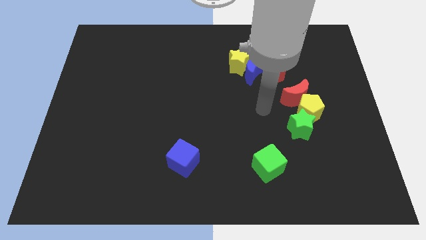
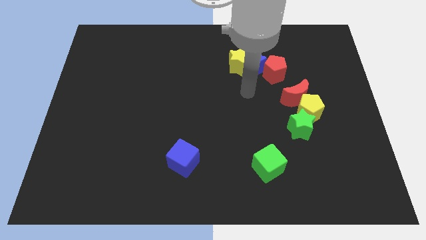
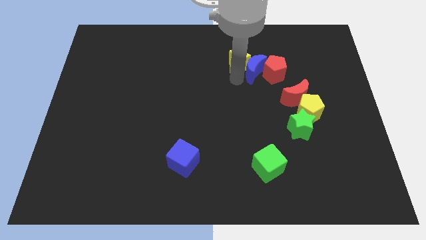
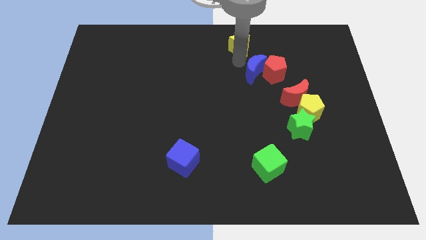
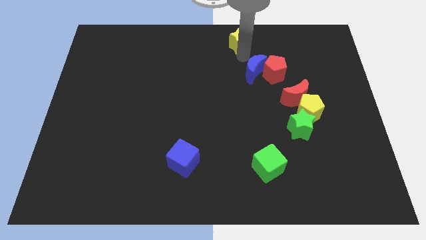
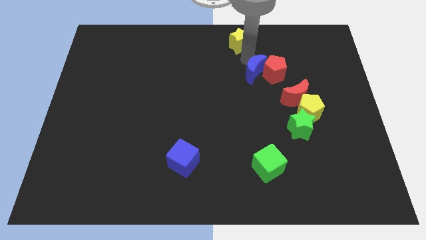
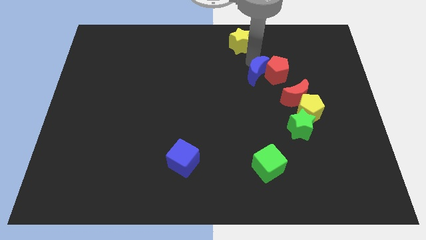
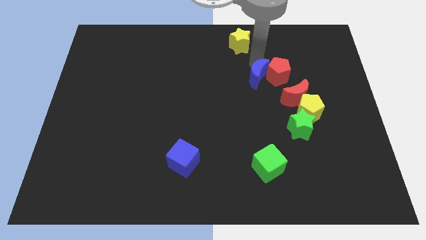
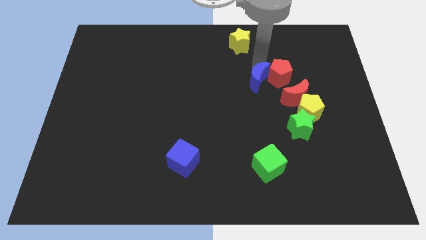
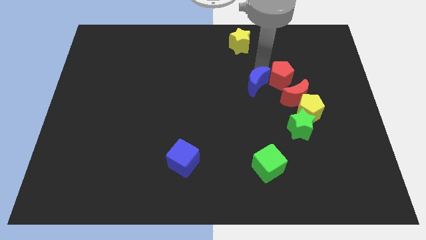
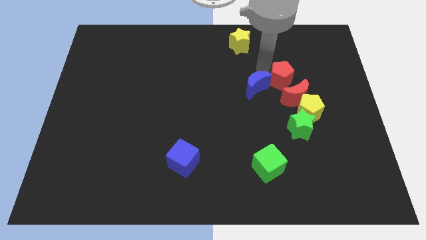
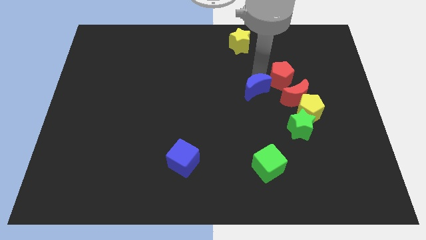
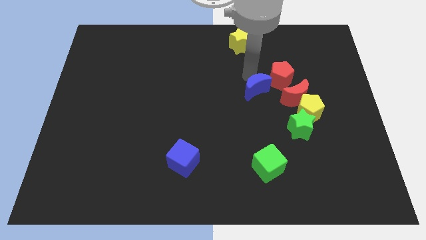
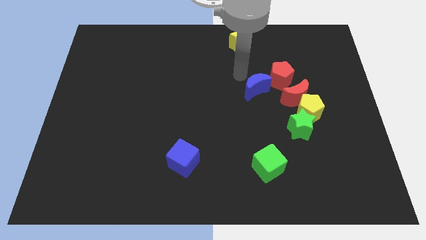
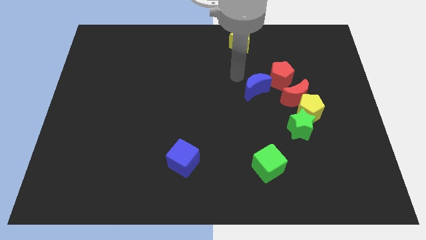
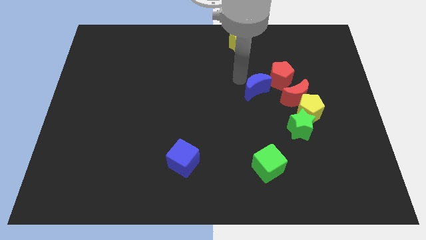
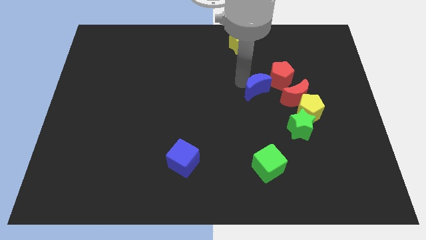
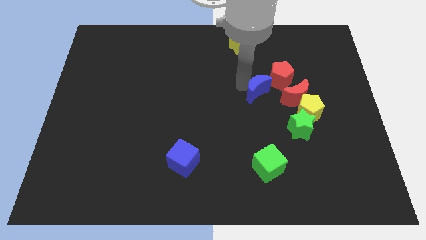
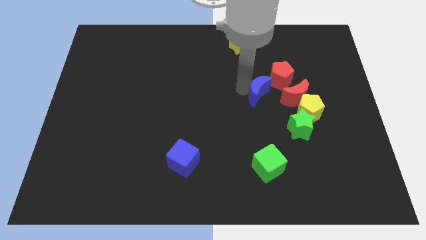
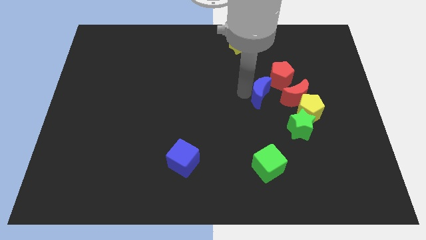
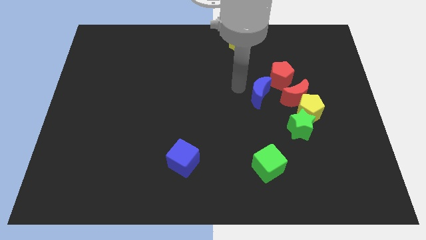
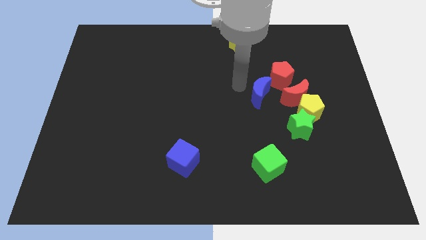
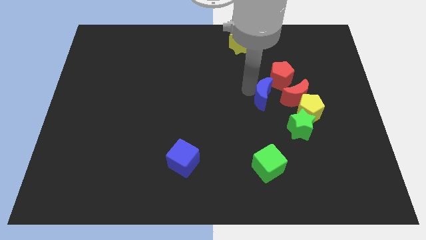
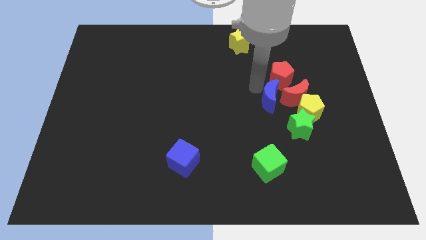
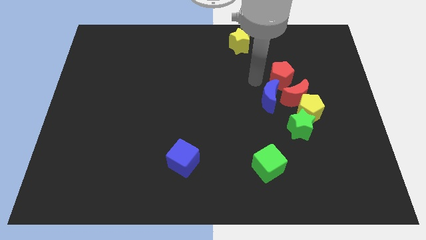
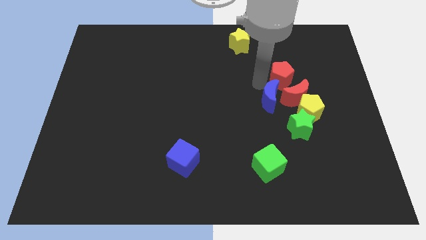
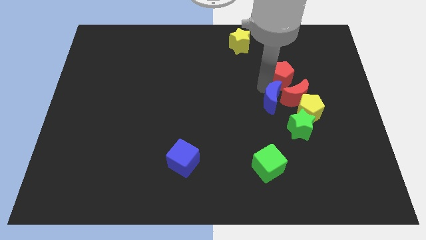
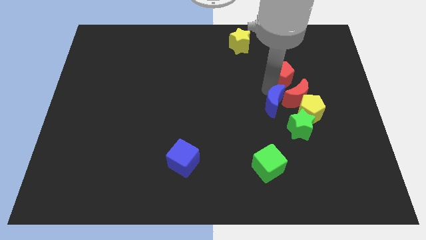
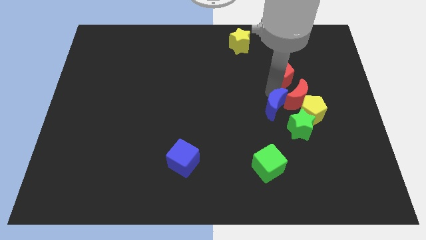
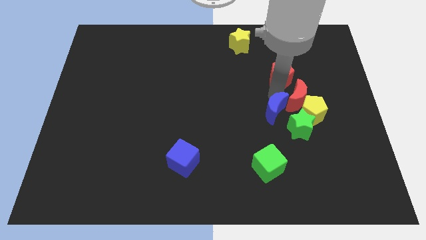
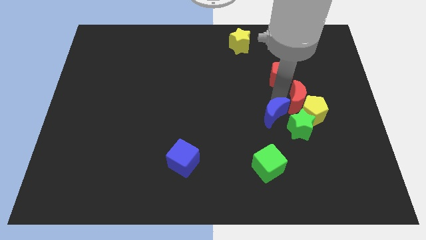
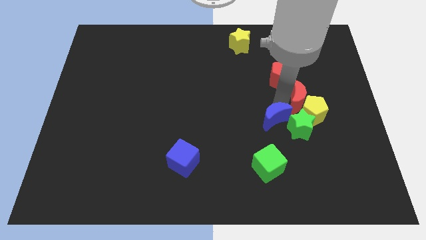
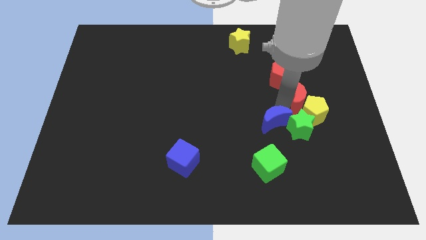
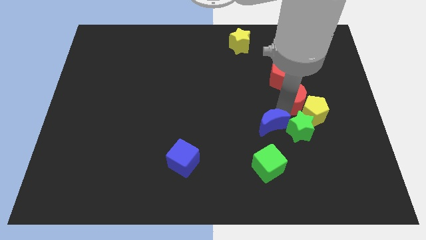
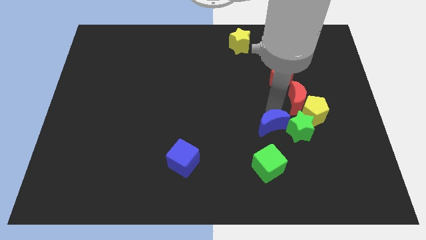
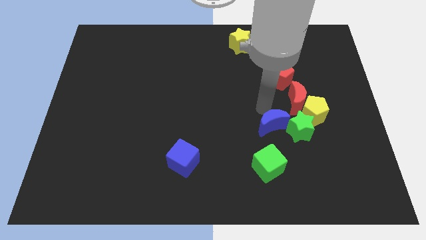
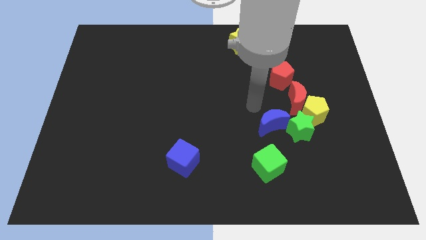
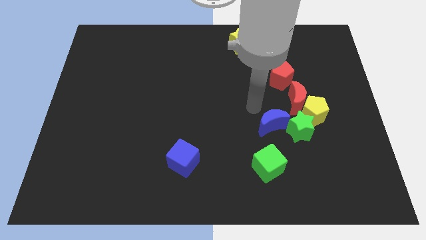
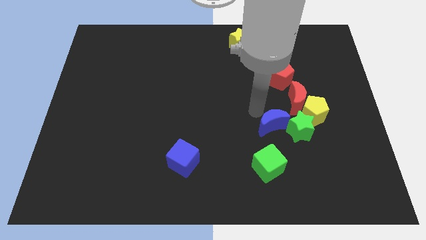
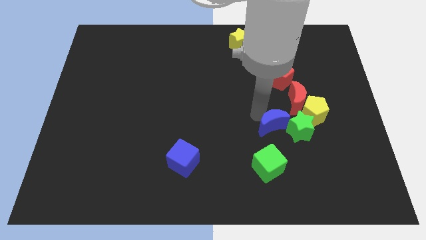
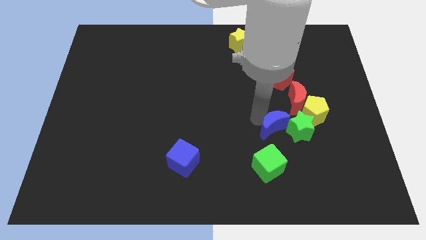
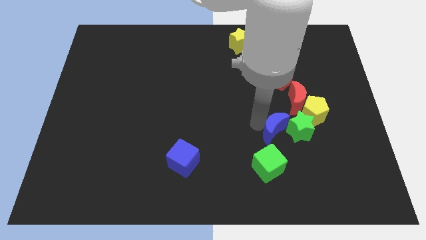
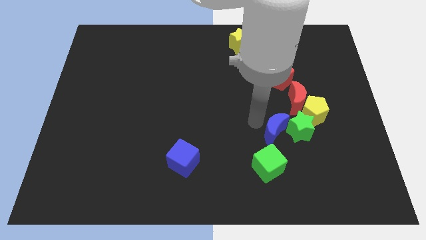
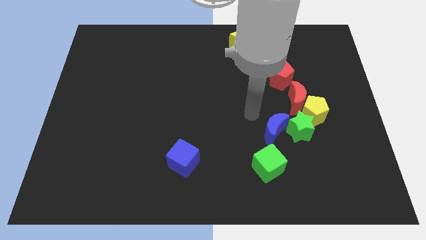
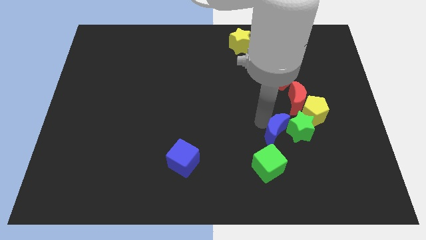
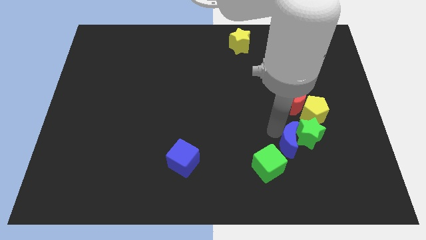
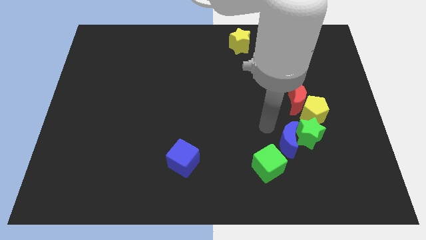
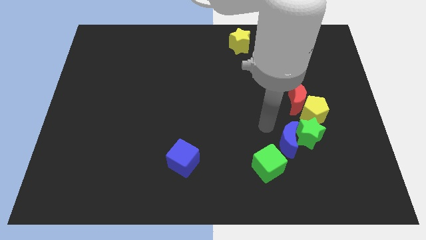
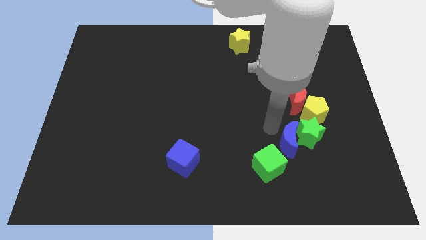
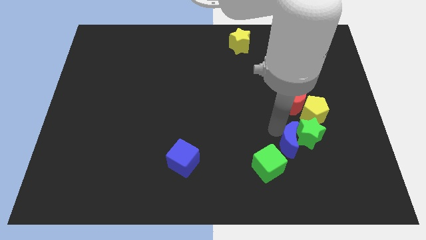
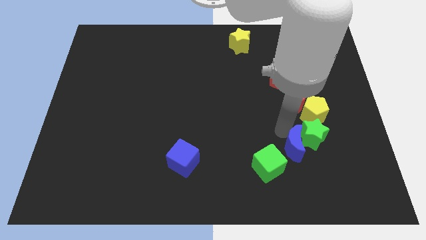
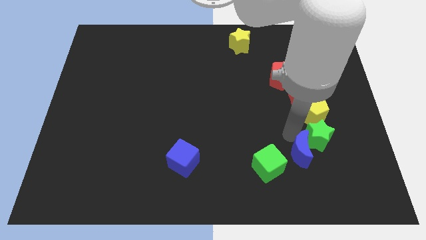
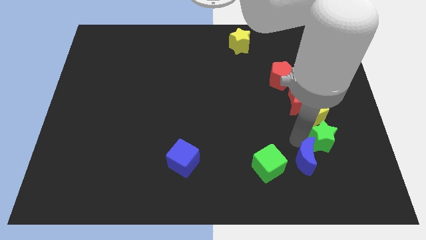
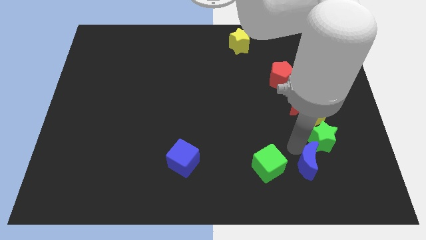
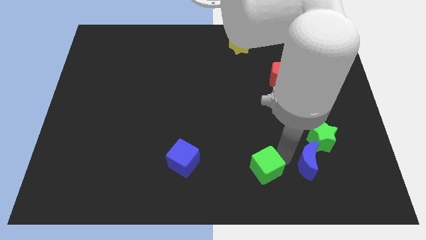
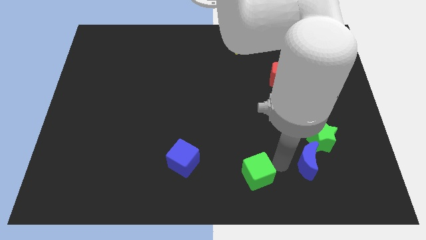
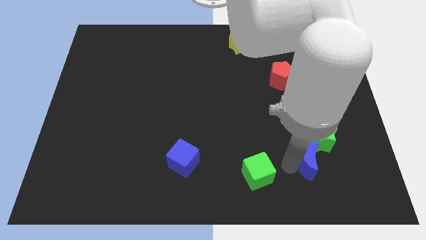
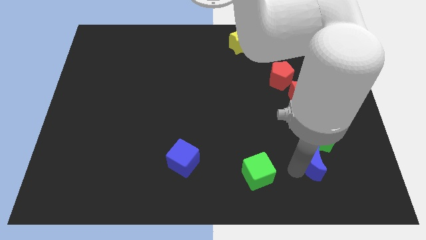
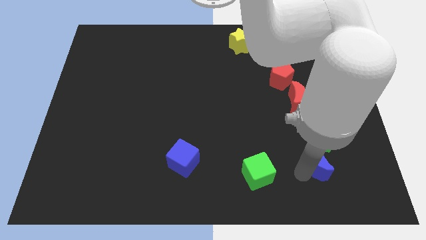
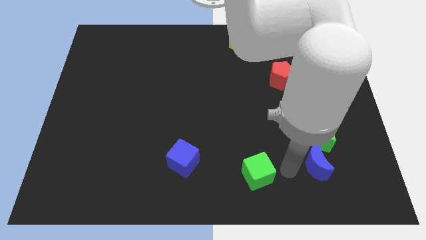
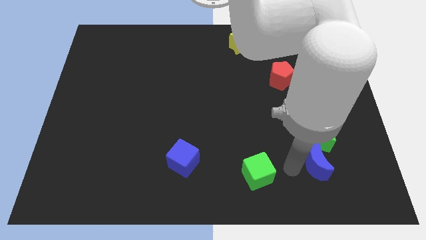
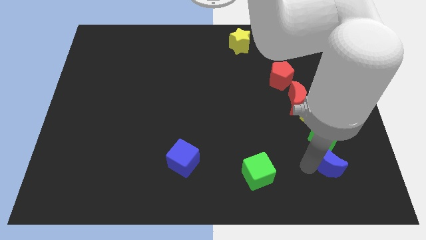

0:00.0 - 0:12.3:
move the blue moon diagonally down and to the right of the green star
